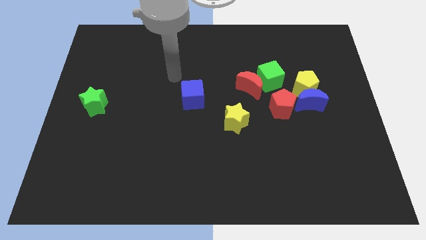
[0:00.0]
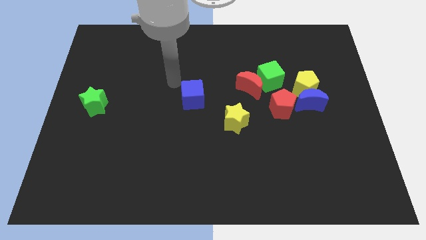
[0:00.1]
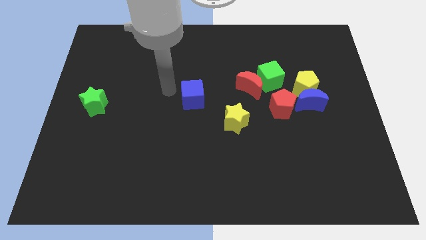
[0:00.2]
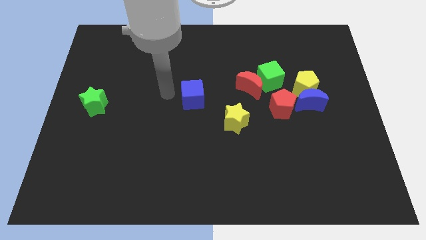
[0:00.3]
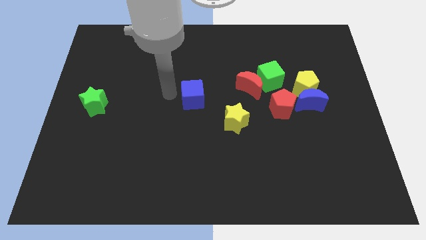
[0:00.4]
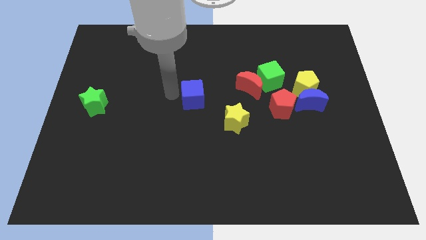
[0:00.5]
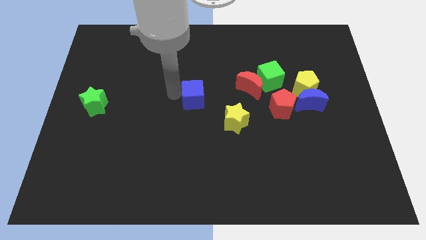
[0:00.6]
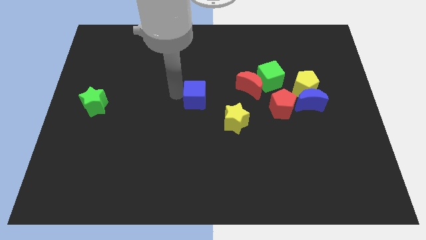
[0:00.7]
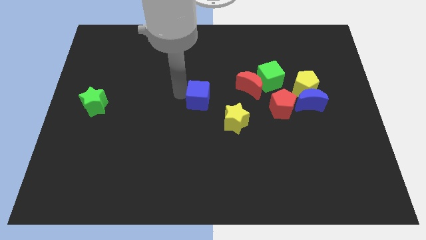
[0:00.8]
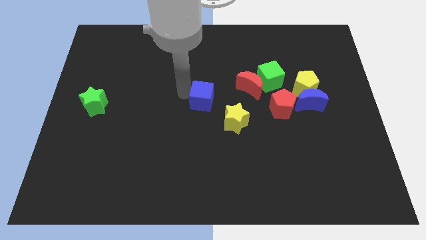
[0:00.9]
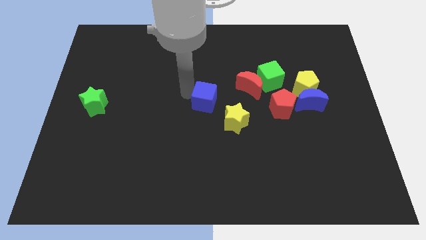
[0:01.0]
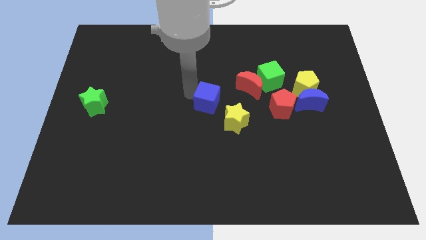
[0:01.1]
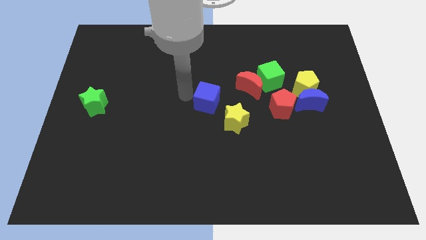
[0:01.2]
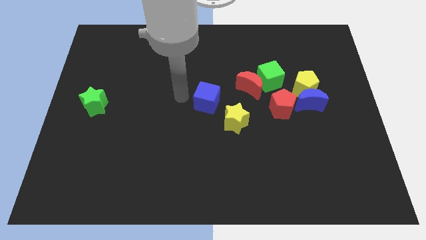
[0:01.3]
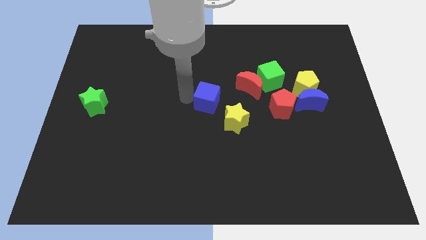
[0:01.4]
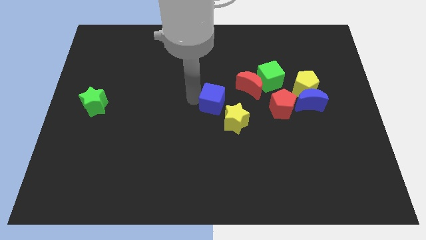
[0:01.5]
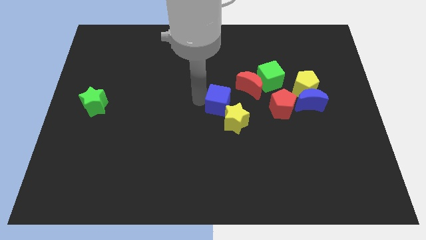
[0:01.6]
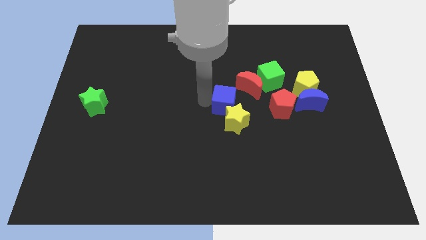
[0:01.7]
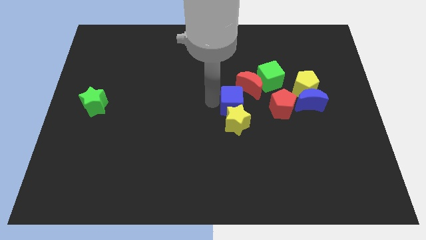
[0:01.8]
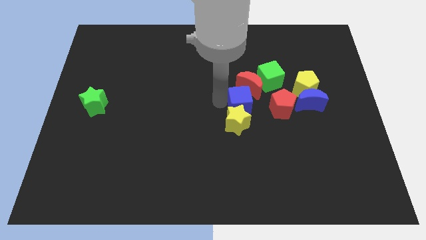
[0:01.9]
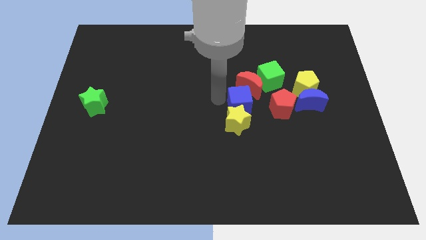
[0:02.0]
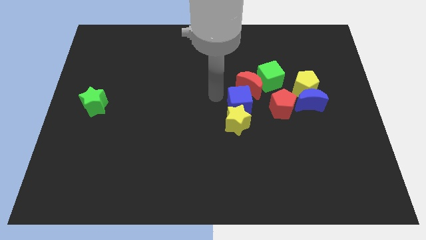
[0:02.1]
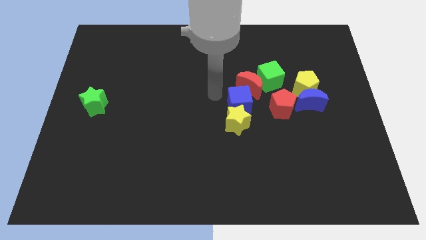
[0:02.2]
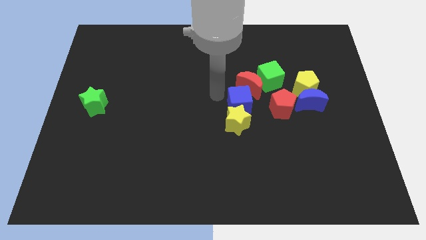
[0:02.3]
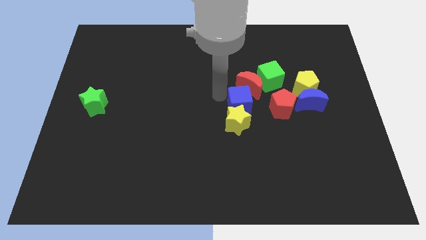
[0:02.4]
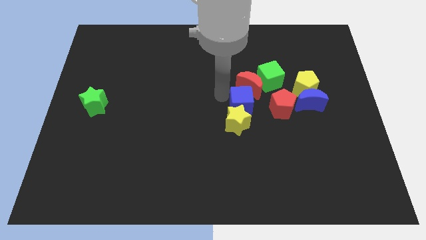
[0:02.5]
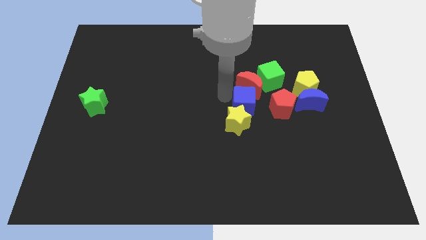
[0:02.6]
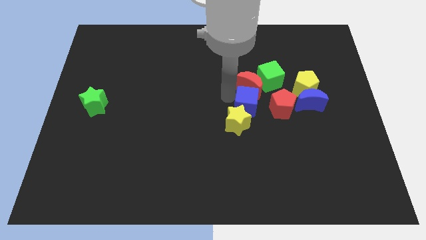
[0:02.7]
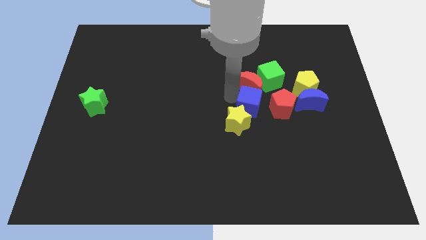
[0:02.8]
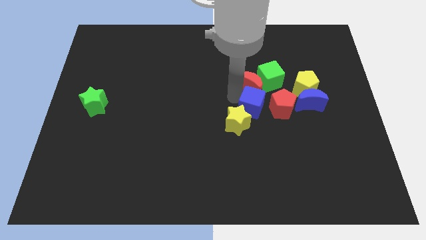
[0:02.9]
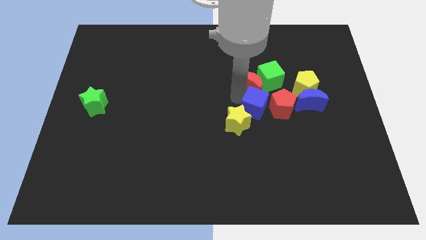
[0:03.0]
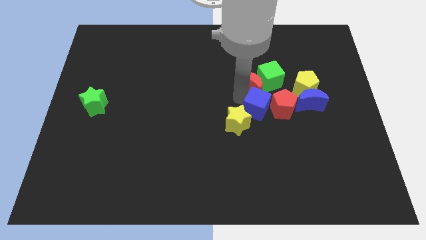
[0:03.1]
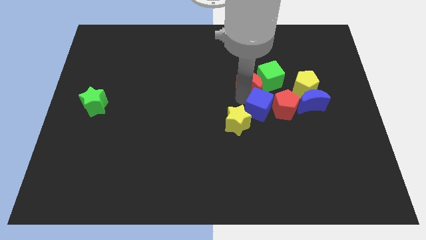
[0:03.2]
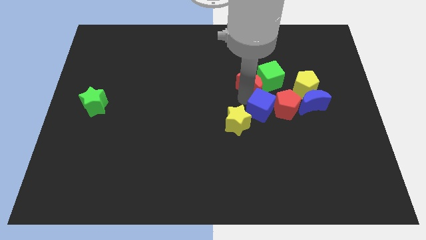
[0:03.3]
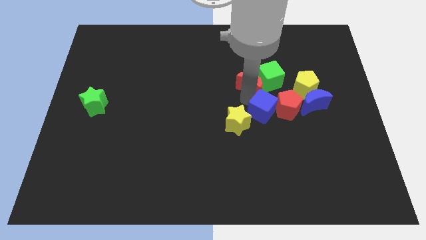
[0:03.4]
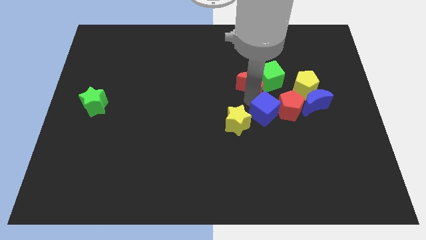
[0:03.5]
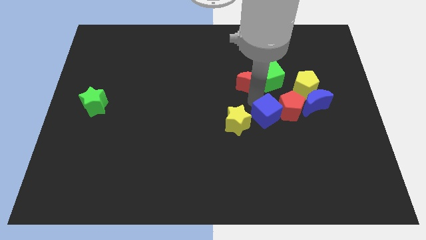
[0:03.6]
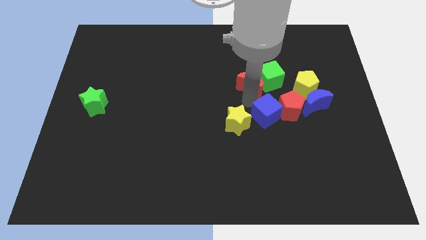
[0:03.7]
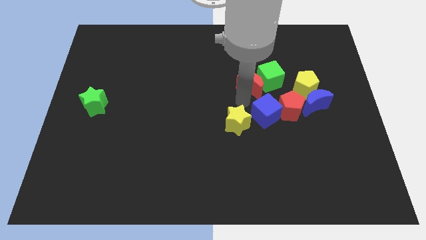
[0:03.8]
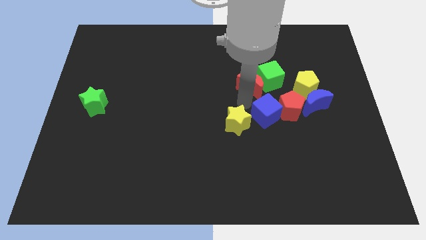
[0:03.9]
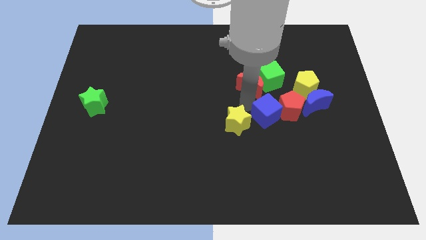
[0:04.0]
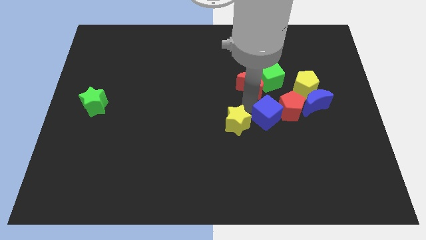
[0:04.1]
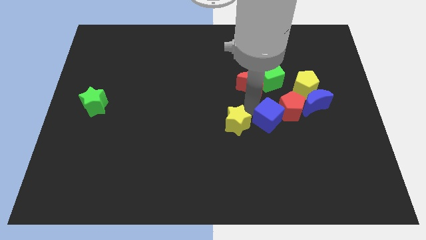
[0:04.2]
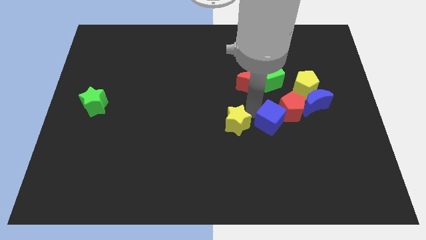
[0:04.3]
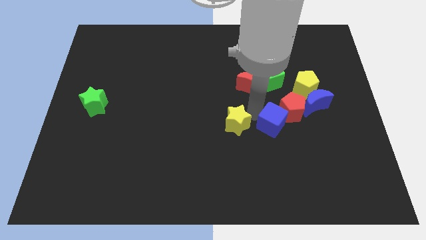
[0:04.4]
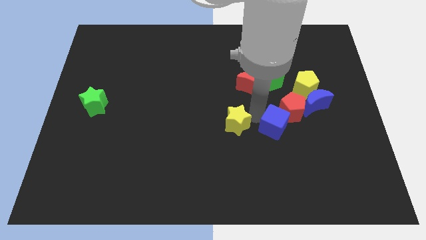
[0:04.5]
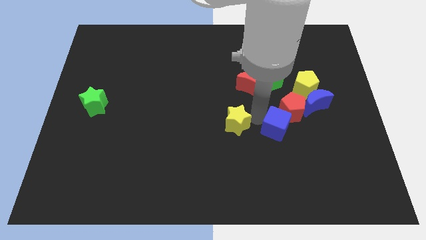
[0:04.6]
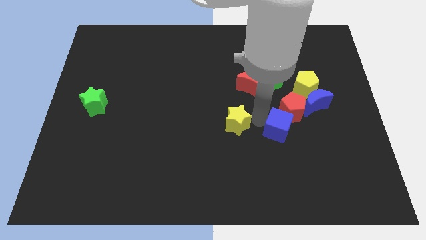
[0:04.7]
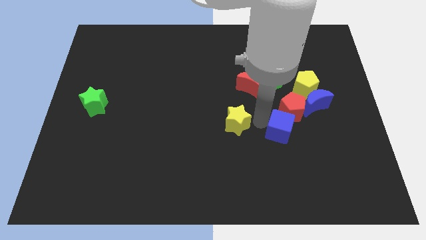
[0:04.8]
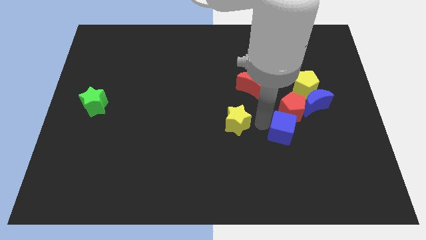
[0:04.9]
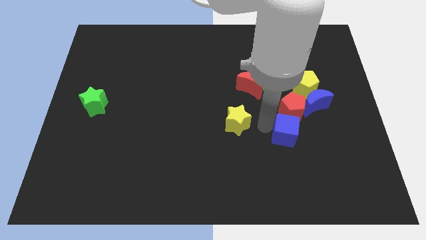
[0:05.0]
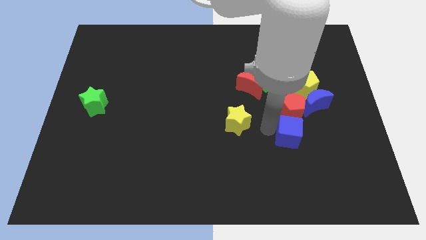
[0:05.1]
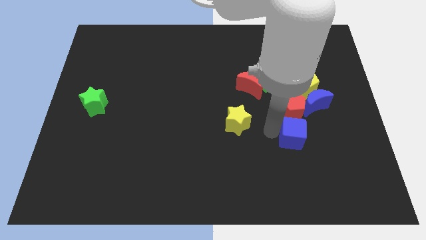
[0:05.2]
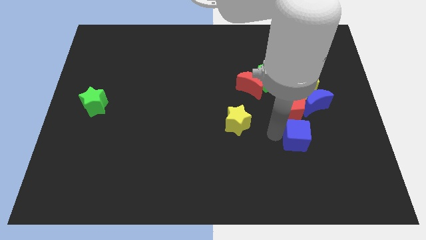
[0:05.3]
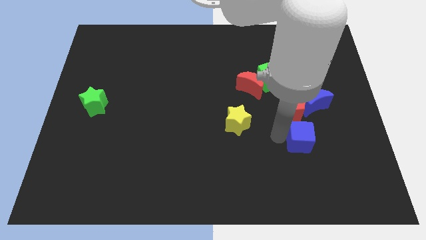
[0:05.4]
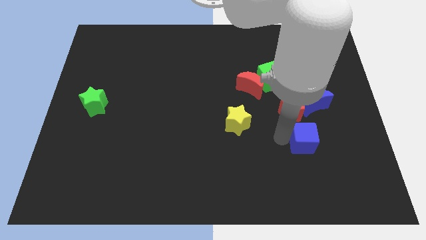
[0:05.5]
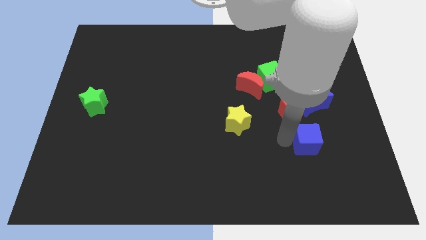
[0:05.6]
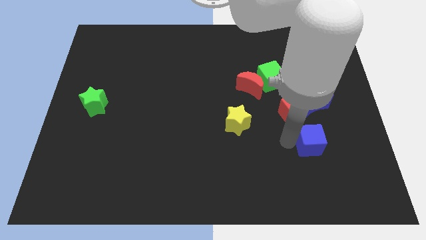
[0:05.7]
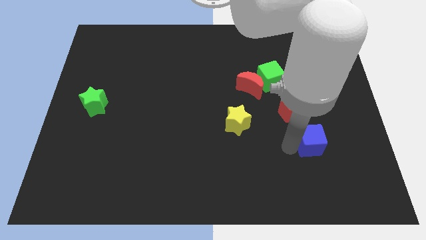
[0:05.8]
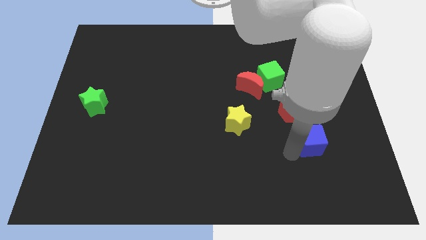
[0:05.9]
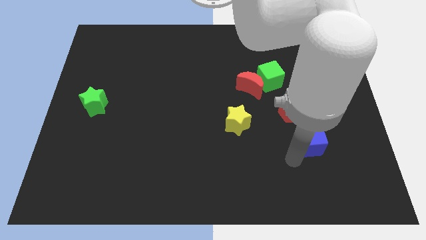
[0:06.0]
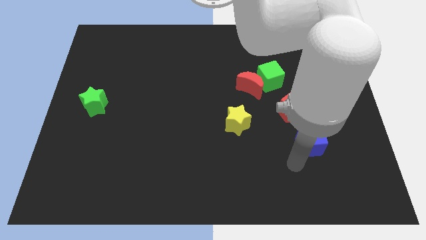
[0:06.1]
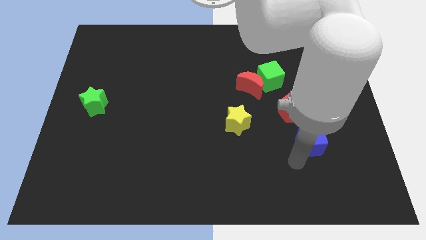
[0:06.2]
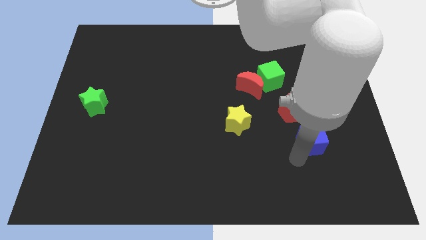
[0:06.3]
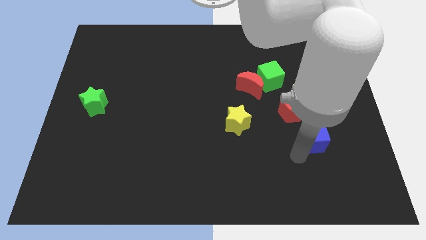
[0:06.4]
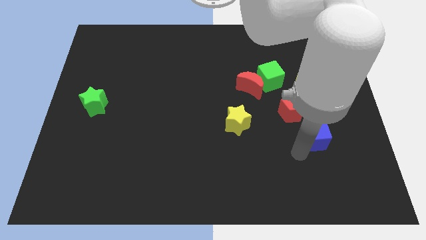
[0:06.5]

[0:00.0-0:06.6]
move the blue cube to the right

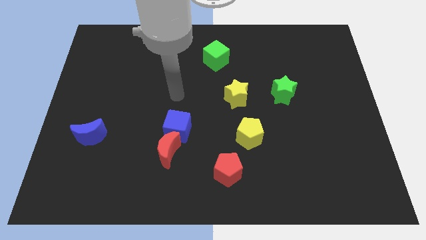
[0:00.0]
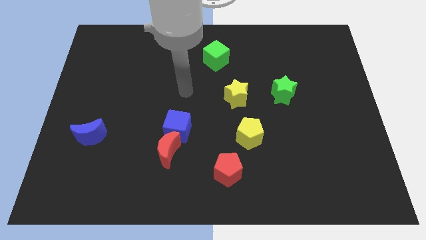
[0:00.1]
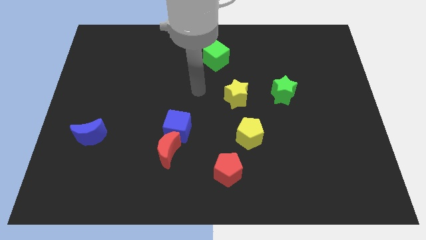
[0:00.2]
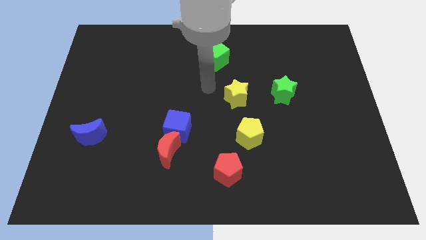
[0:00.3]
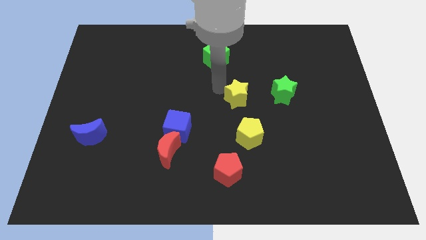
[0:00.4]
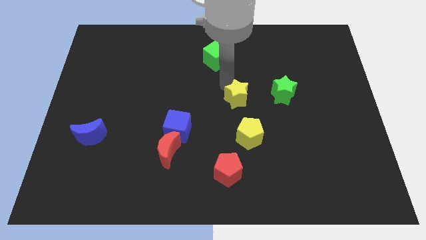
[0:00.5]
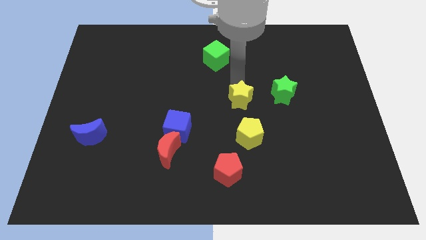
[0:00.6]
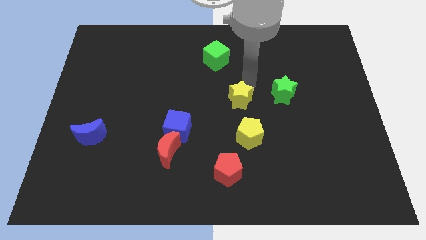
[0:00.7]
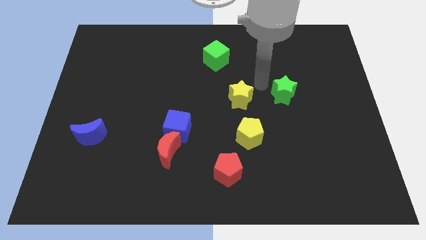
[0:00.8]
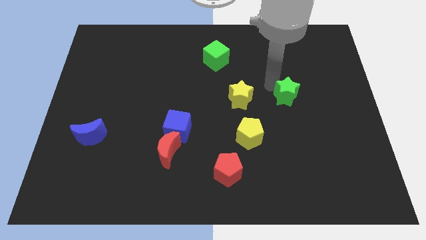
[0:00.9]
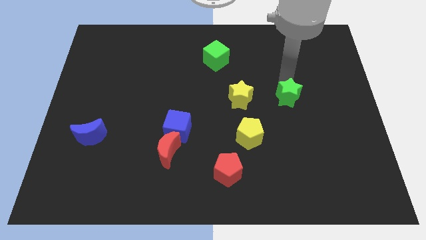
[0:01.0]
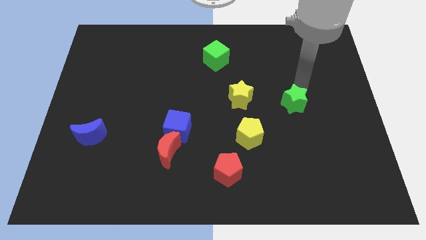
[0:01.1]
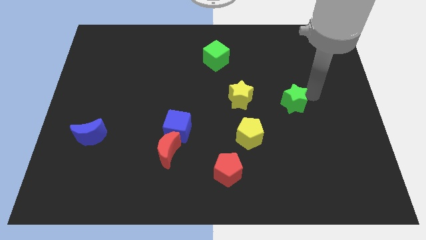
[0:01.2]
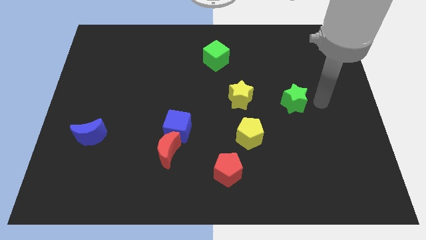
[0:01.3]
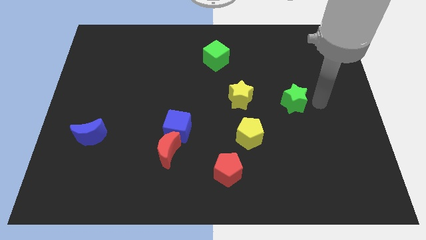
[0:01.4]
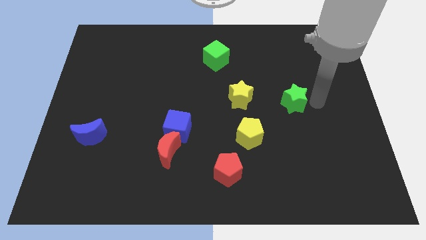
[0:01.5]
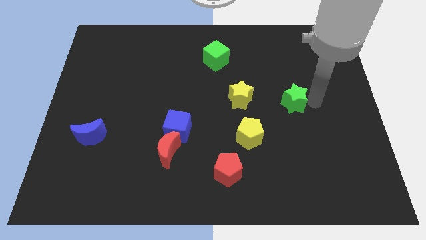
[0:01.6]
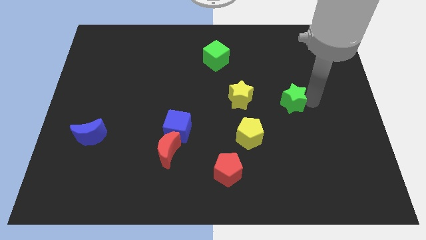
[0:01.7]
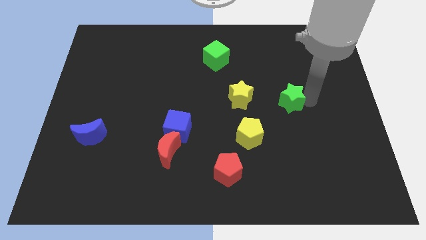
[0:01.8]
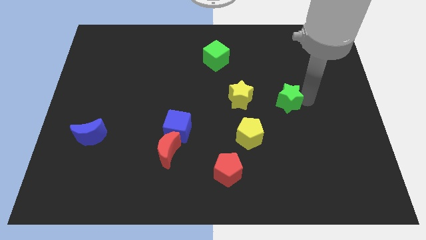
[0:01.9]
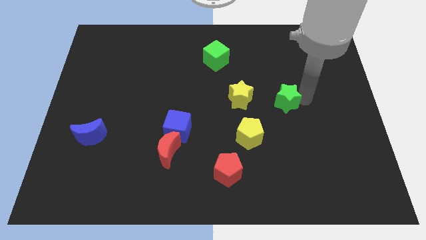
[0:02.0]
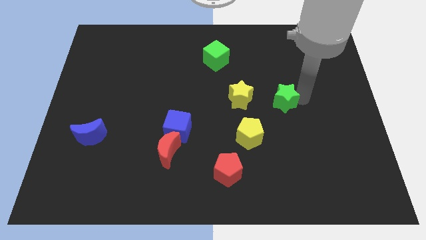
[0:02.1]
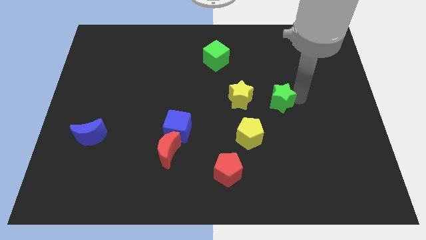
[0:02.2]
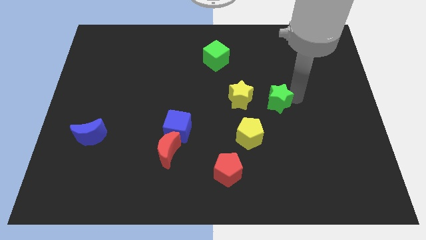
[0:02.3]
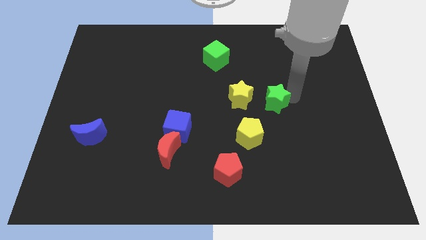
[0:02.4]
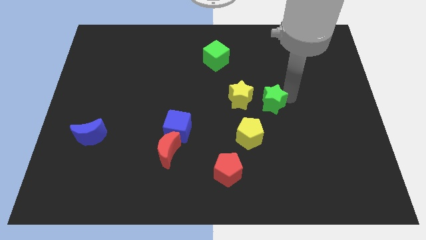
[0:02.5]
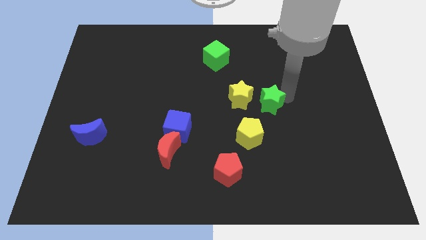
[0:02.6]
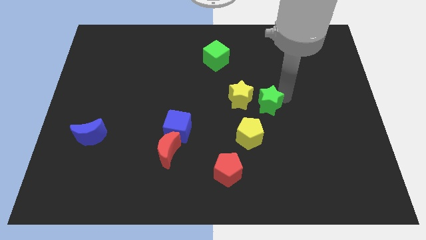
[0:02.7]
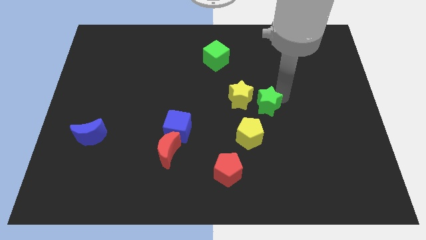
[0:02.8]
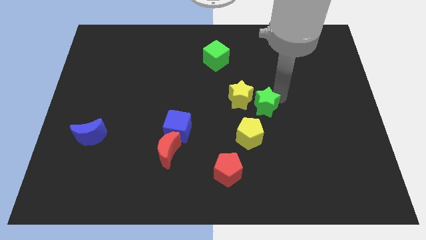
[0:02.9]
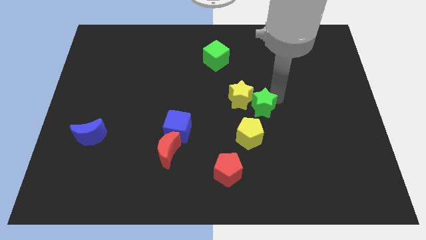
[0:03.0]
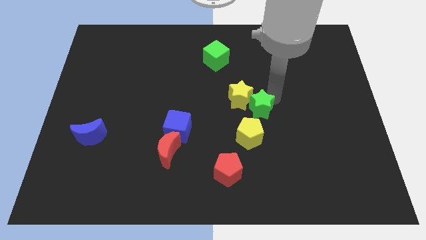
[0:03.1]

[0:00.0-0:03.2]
push the green star downwards and left a little
